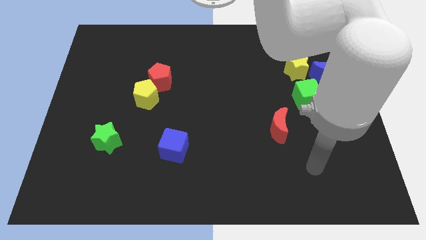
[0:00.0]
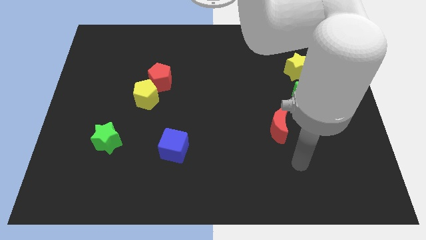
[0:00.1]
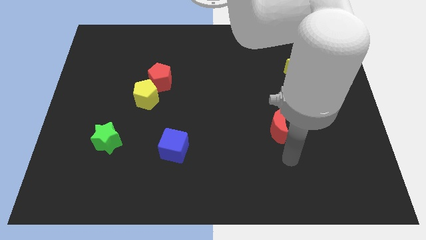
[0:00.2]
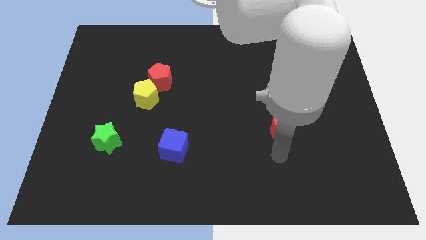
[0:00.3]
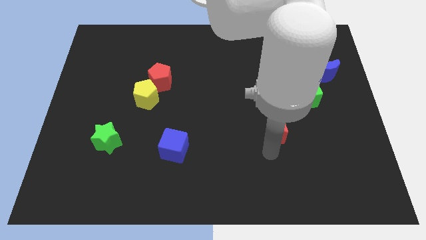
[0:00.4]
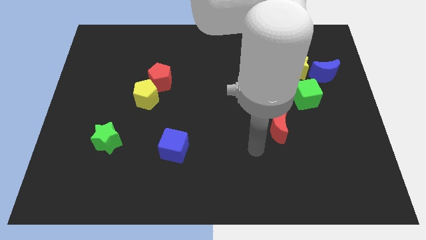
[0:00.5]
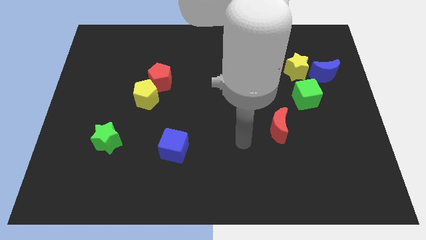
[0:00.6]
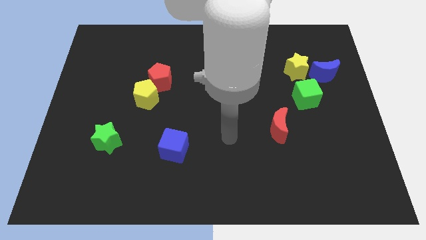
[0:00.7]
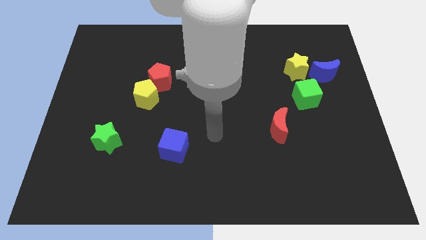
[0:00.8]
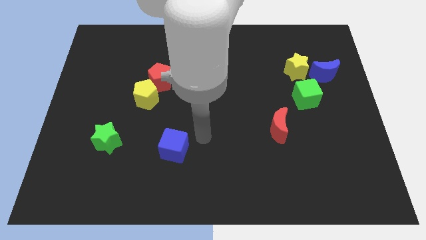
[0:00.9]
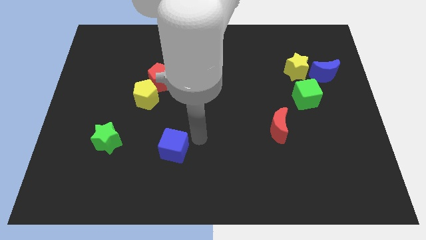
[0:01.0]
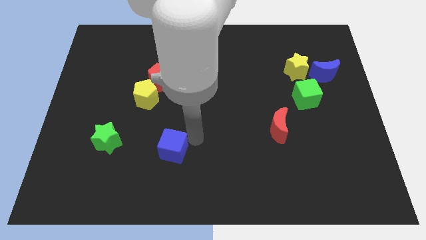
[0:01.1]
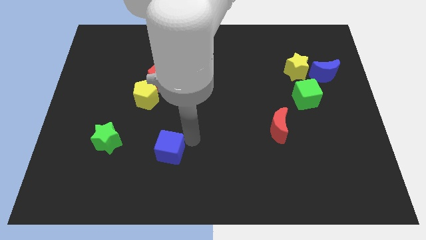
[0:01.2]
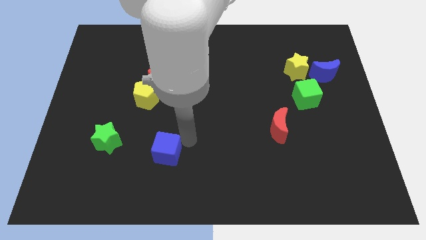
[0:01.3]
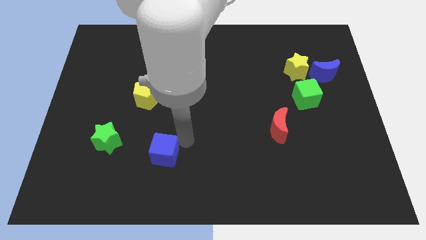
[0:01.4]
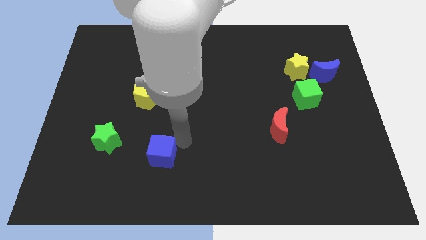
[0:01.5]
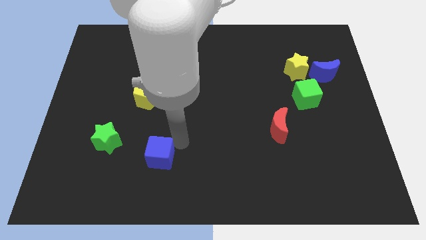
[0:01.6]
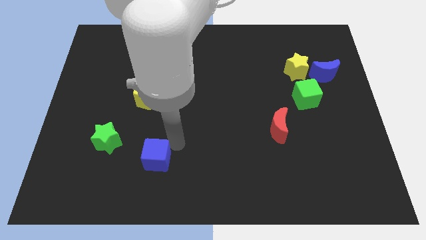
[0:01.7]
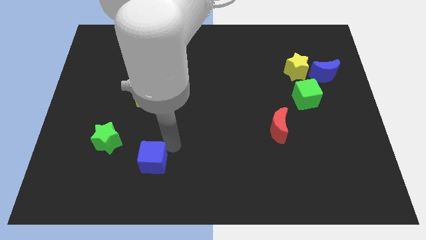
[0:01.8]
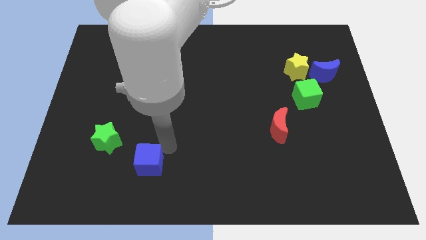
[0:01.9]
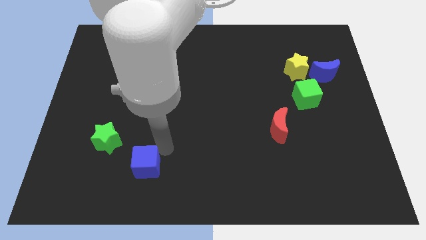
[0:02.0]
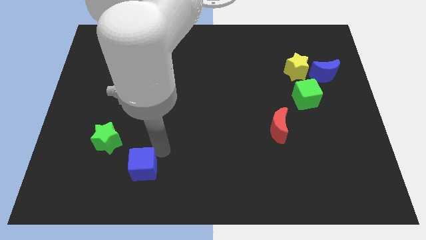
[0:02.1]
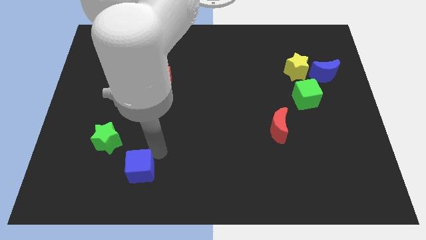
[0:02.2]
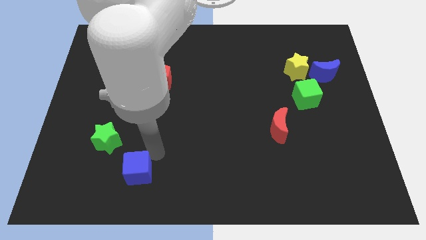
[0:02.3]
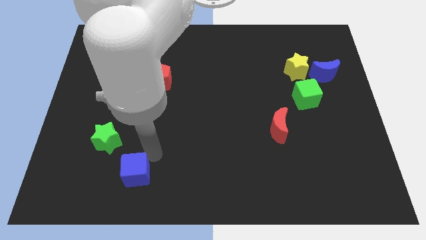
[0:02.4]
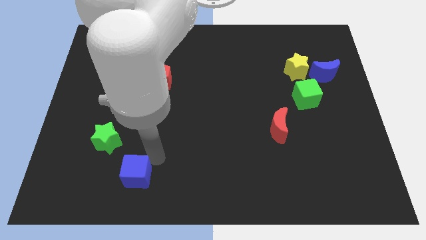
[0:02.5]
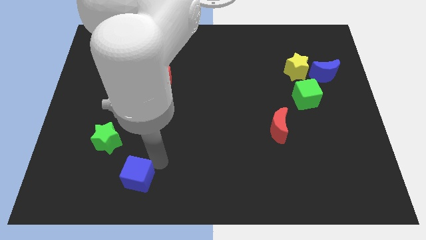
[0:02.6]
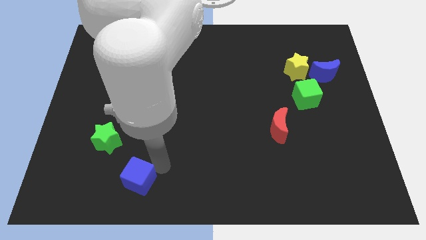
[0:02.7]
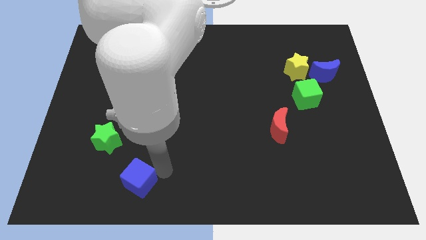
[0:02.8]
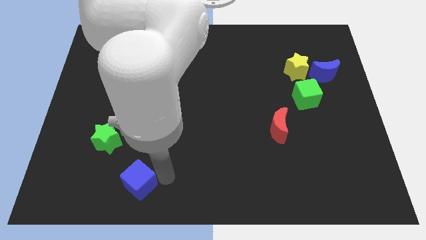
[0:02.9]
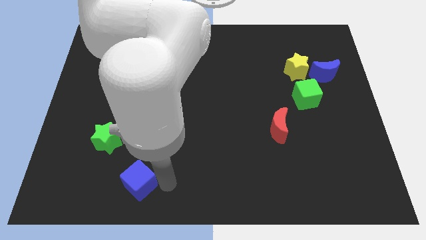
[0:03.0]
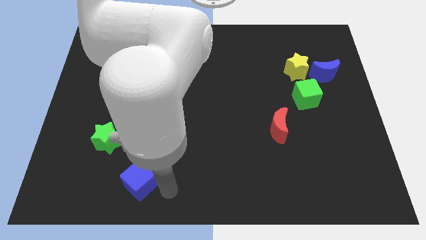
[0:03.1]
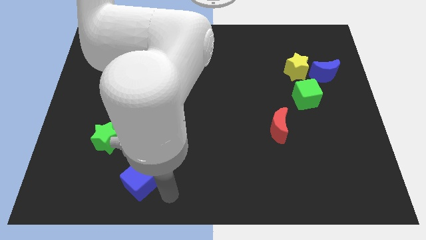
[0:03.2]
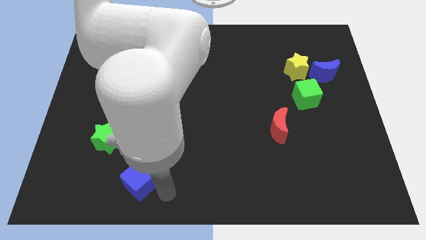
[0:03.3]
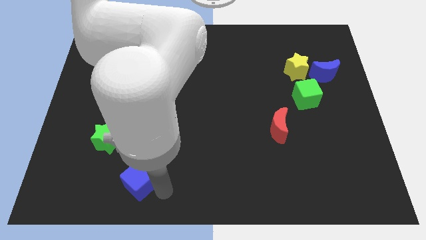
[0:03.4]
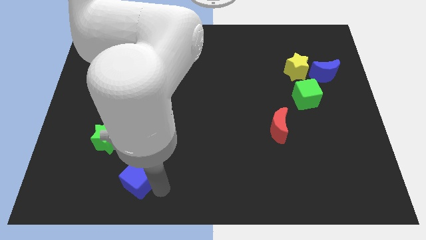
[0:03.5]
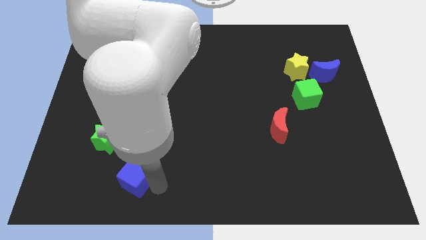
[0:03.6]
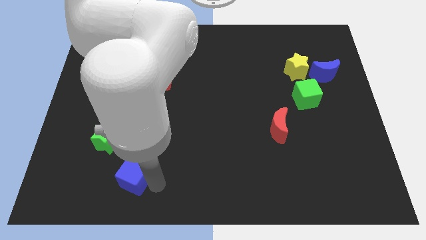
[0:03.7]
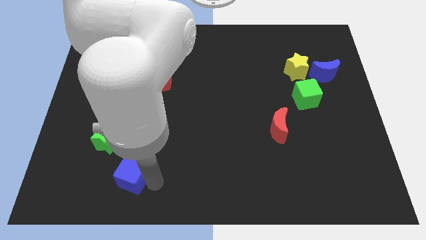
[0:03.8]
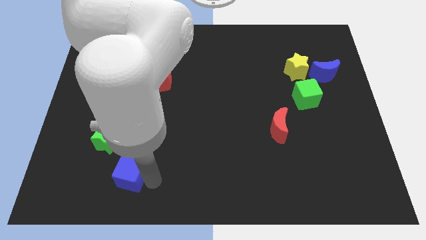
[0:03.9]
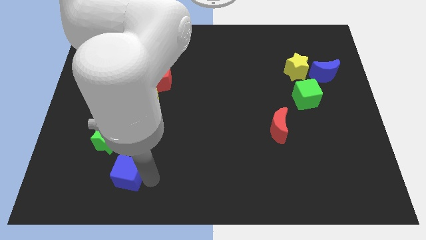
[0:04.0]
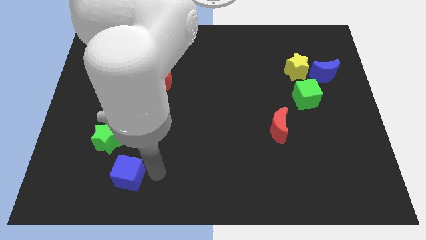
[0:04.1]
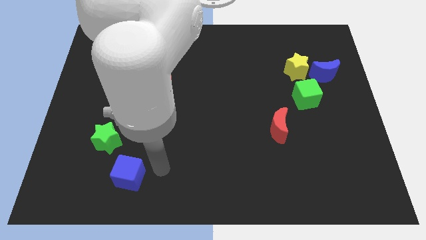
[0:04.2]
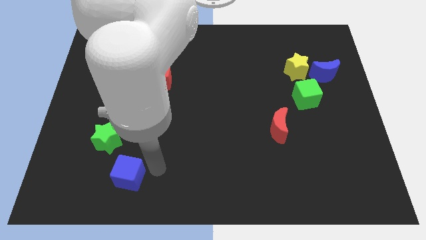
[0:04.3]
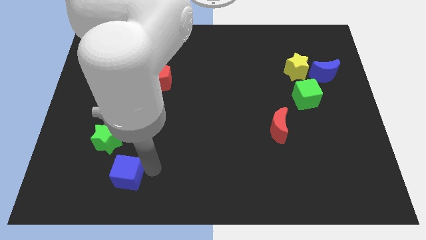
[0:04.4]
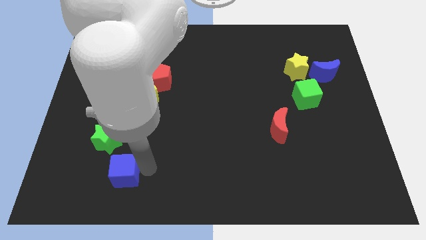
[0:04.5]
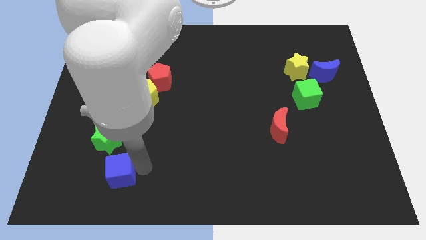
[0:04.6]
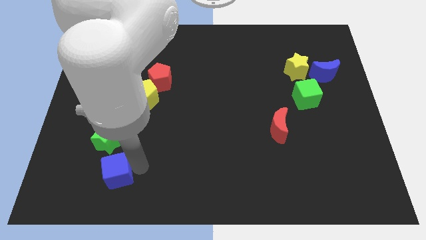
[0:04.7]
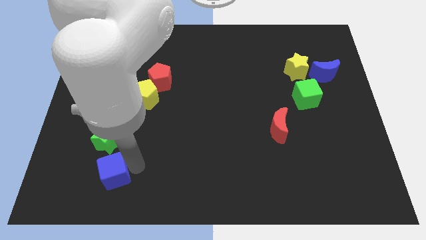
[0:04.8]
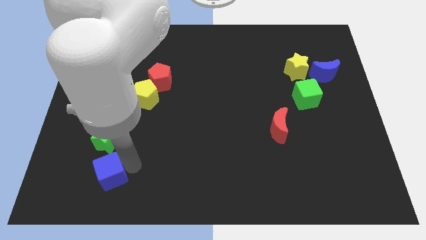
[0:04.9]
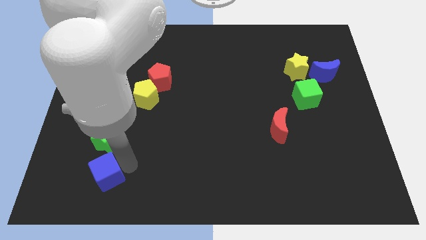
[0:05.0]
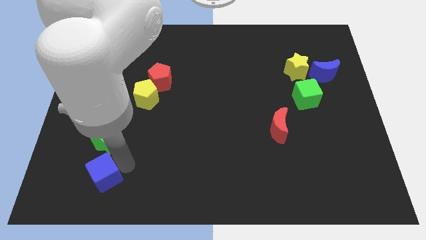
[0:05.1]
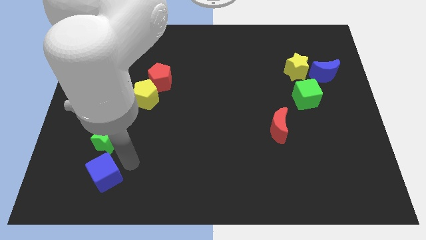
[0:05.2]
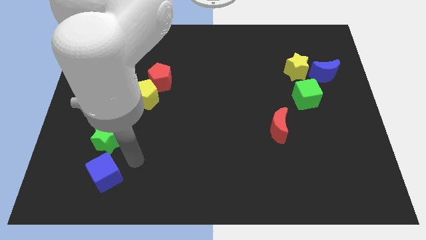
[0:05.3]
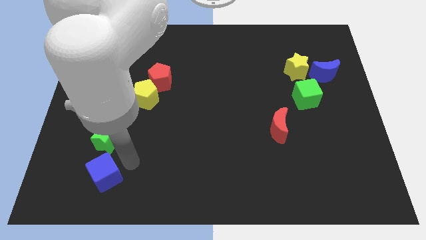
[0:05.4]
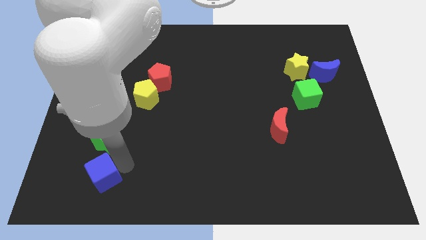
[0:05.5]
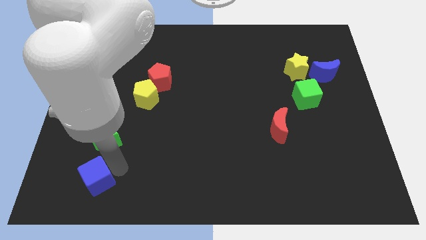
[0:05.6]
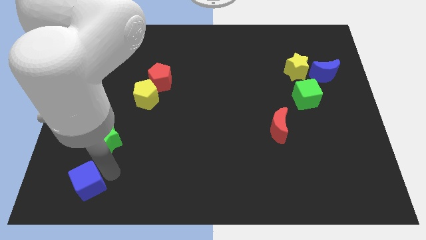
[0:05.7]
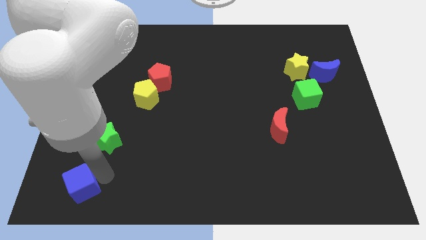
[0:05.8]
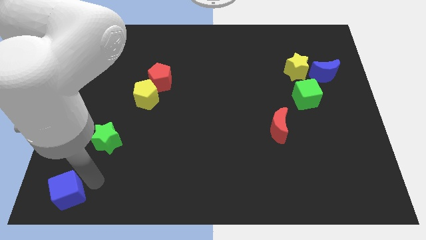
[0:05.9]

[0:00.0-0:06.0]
slide the blue cube to the bottom left
